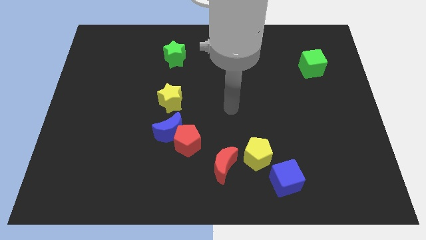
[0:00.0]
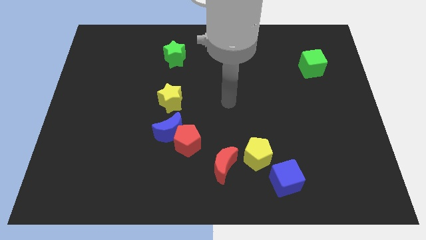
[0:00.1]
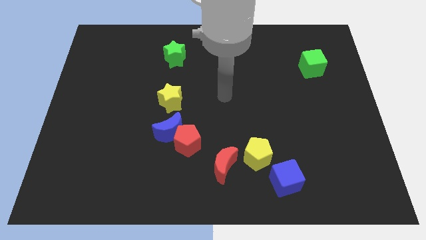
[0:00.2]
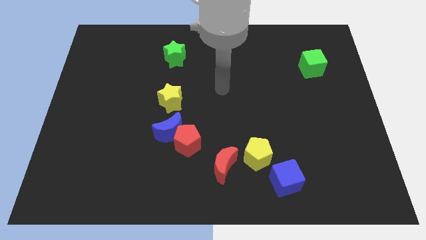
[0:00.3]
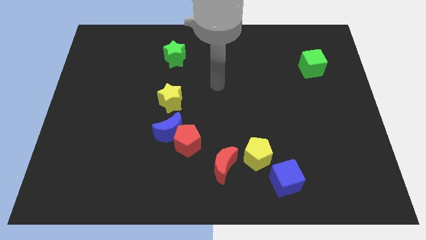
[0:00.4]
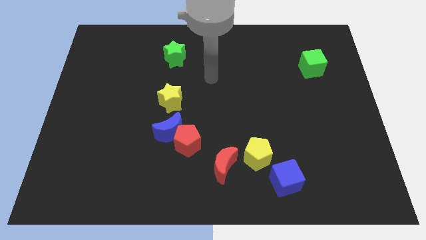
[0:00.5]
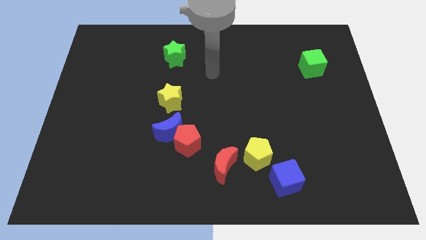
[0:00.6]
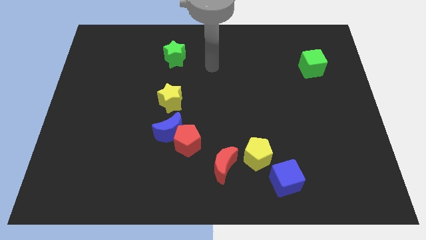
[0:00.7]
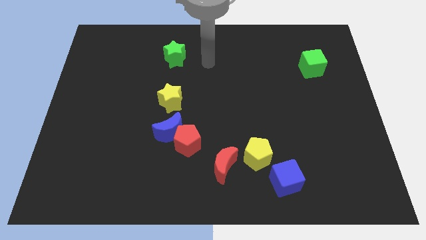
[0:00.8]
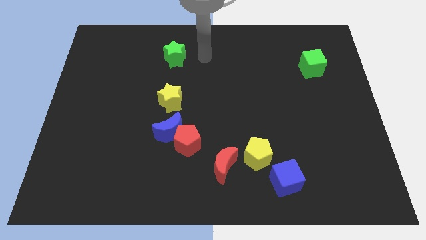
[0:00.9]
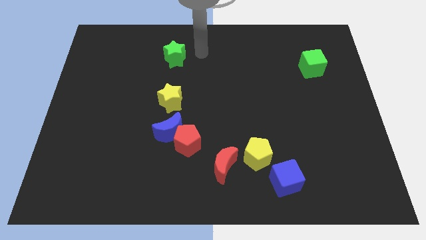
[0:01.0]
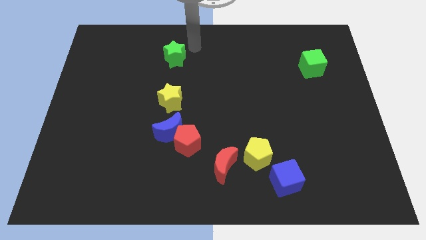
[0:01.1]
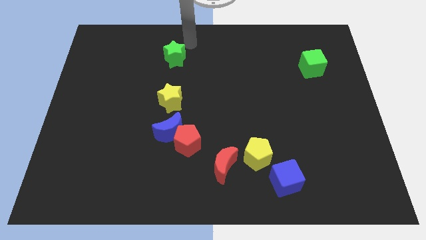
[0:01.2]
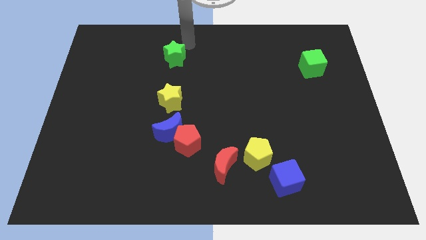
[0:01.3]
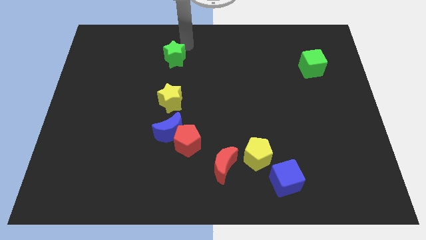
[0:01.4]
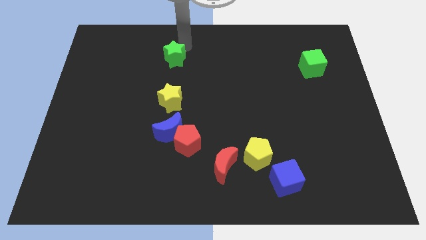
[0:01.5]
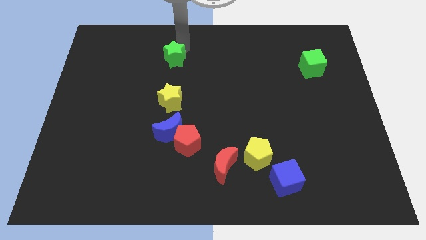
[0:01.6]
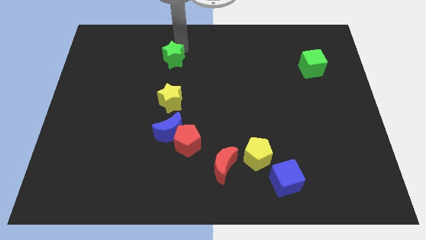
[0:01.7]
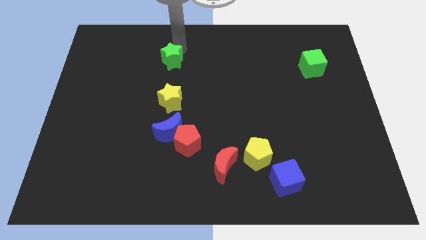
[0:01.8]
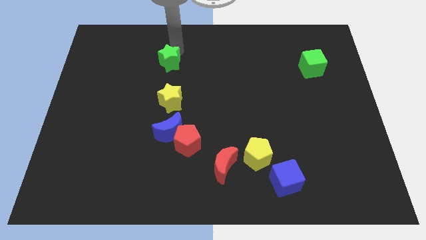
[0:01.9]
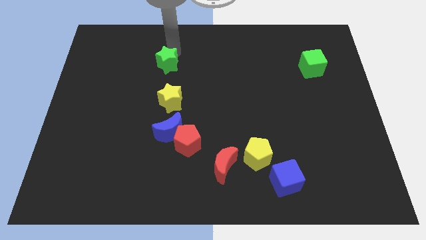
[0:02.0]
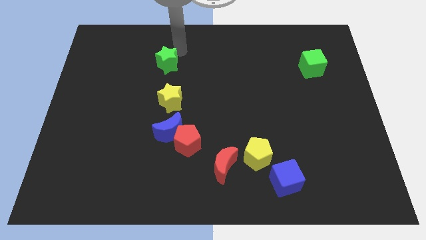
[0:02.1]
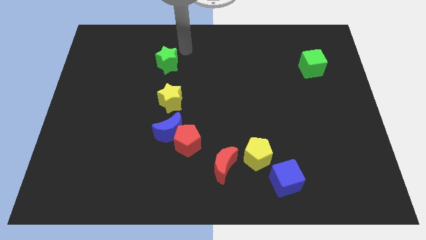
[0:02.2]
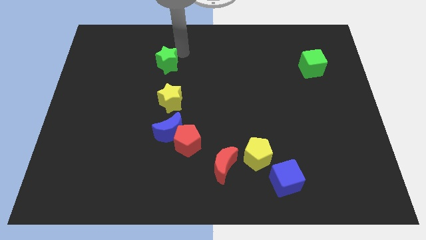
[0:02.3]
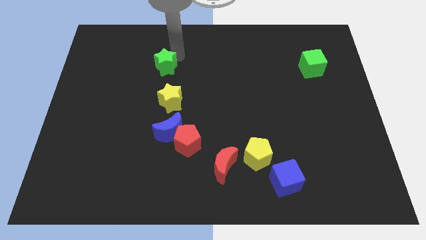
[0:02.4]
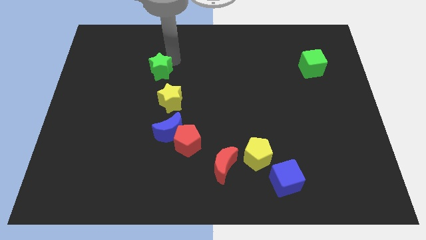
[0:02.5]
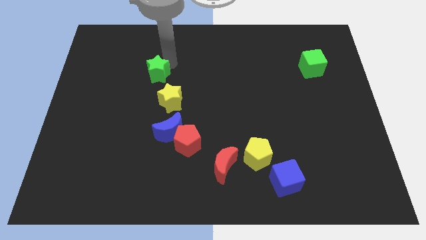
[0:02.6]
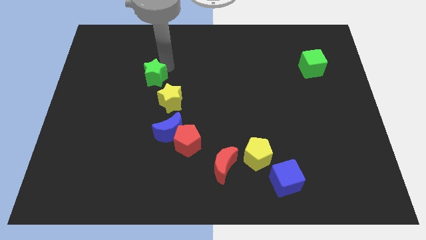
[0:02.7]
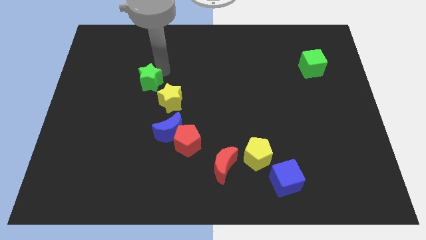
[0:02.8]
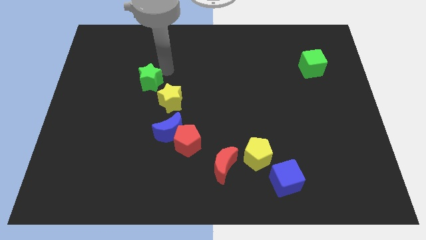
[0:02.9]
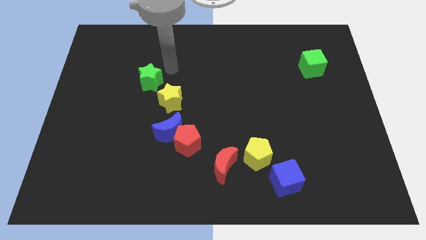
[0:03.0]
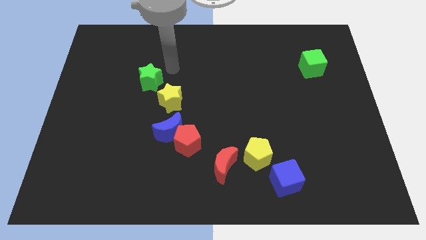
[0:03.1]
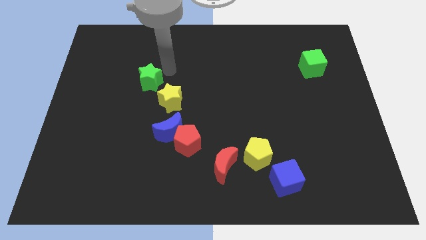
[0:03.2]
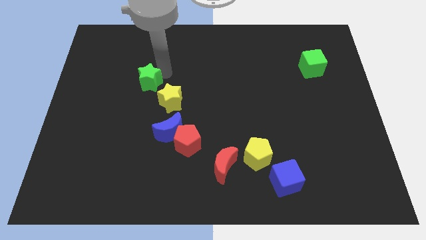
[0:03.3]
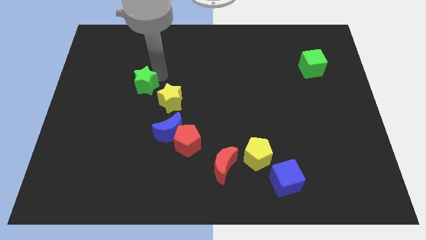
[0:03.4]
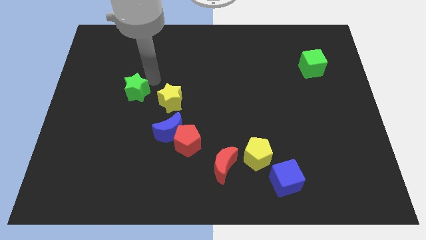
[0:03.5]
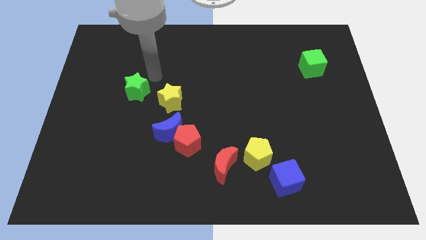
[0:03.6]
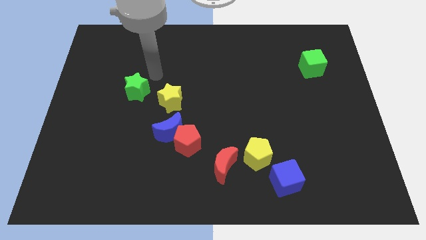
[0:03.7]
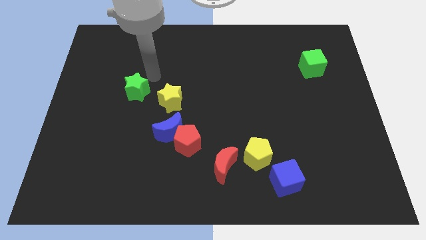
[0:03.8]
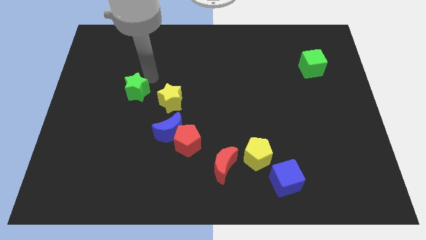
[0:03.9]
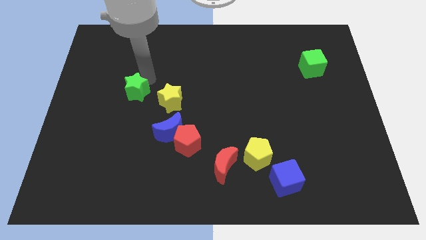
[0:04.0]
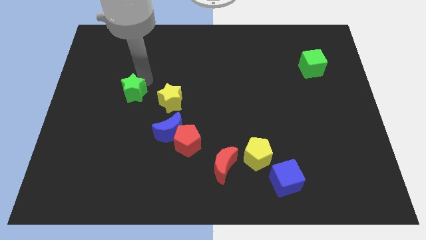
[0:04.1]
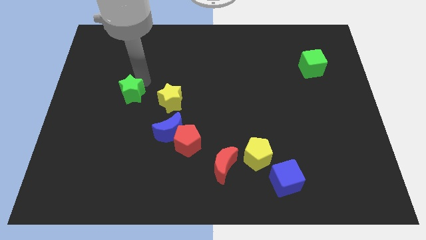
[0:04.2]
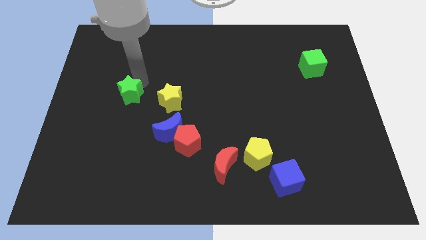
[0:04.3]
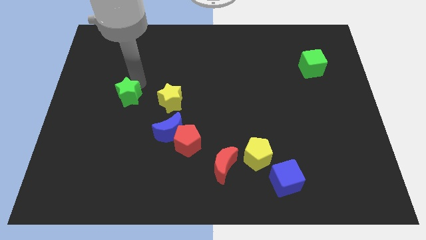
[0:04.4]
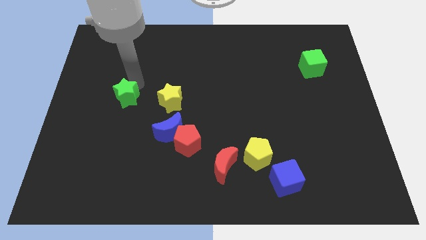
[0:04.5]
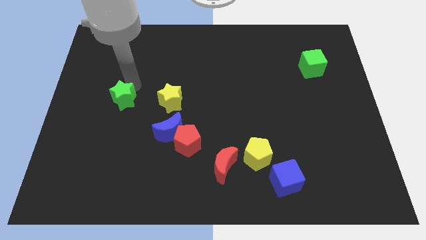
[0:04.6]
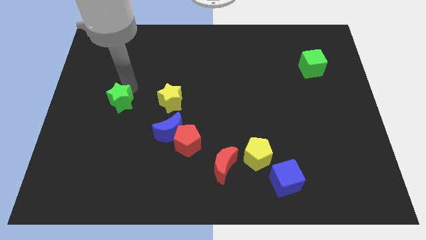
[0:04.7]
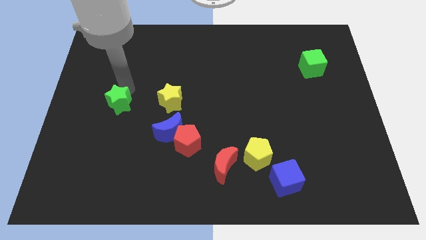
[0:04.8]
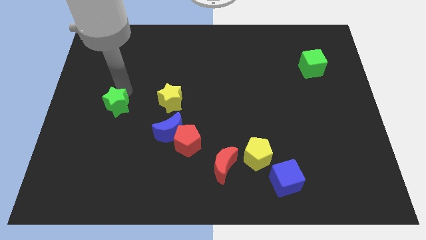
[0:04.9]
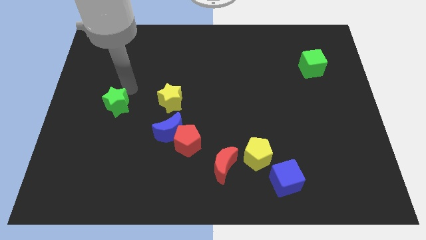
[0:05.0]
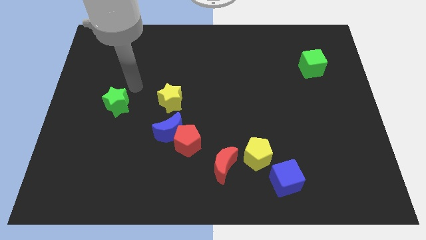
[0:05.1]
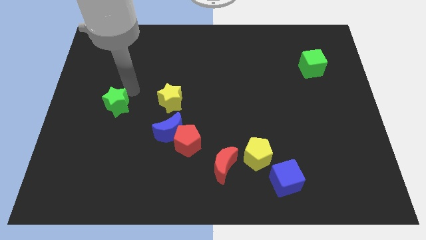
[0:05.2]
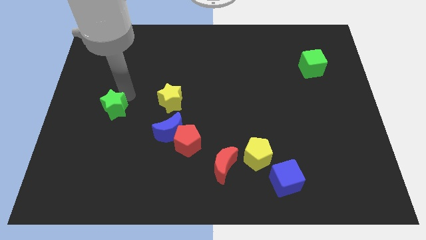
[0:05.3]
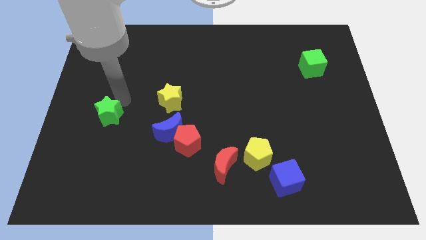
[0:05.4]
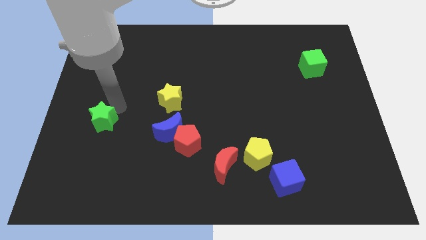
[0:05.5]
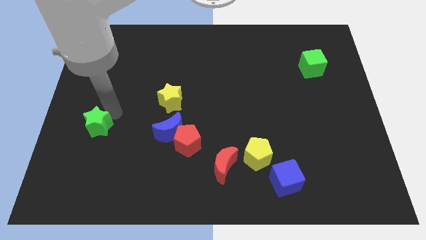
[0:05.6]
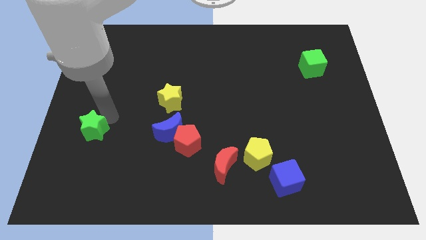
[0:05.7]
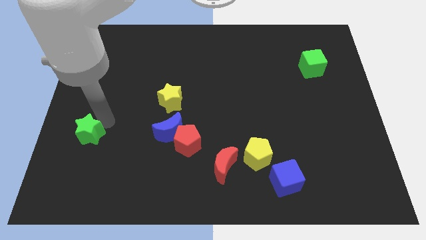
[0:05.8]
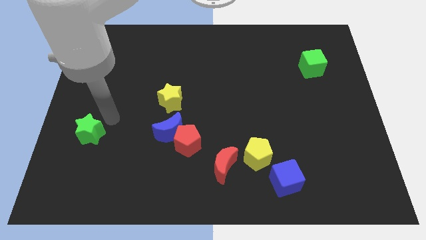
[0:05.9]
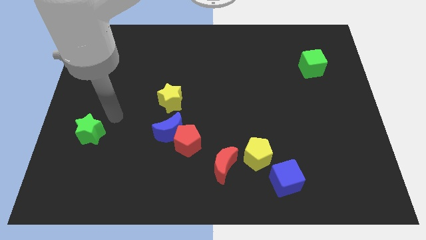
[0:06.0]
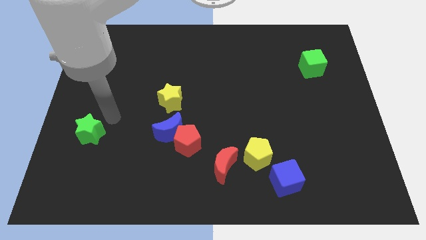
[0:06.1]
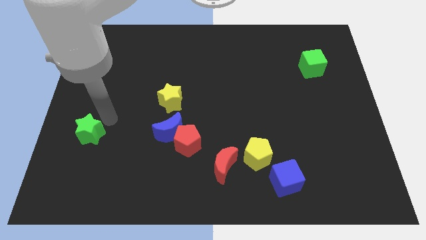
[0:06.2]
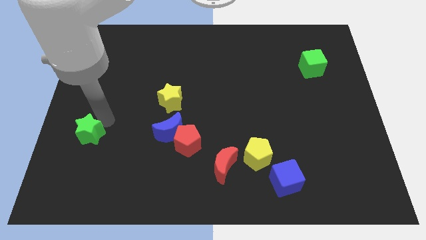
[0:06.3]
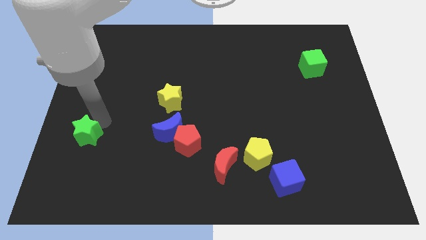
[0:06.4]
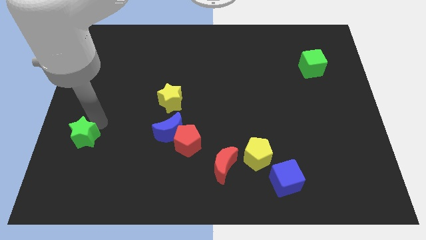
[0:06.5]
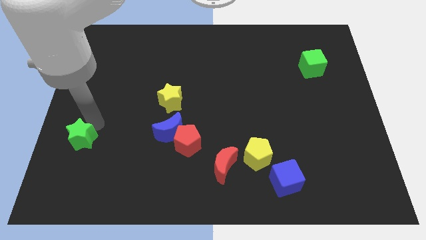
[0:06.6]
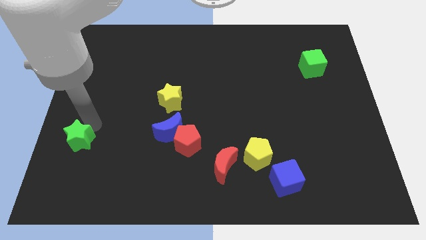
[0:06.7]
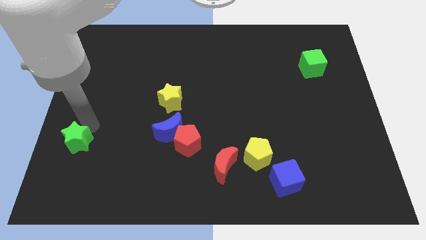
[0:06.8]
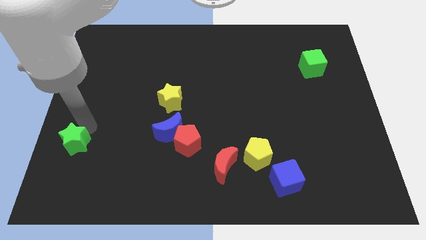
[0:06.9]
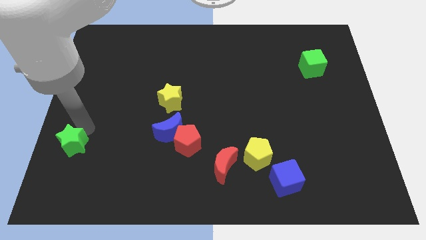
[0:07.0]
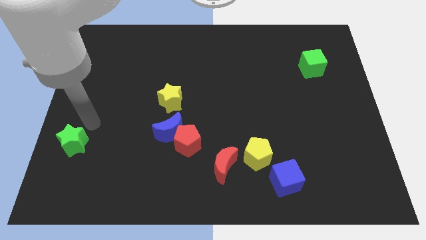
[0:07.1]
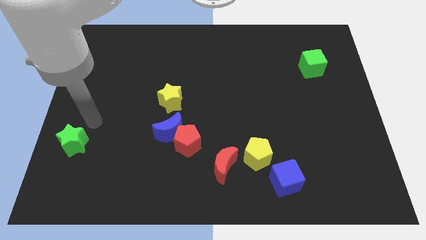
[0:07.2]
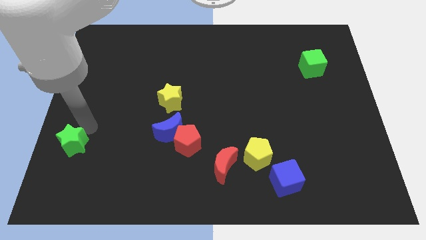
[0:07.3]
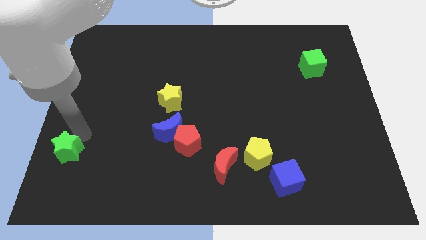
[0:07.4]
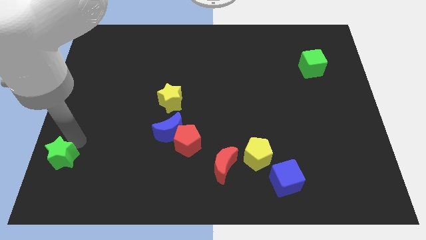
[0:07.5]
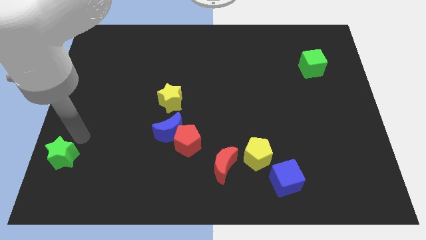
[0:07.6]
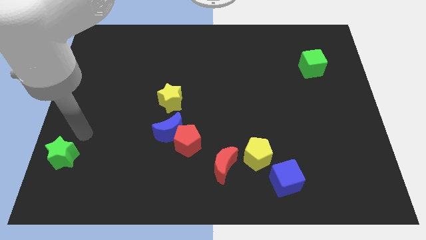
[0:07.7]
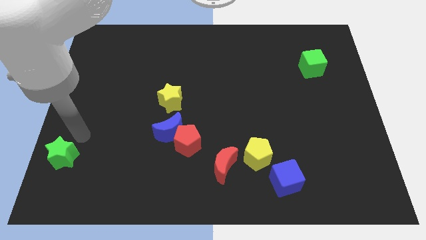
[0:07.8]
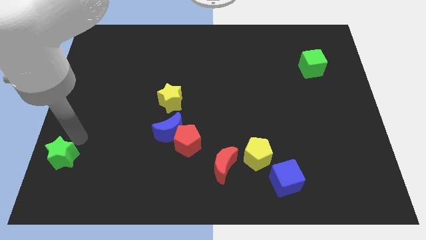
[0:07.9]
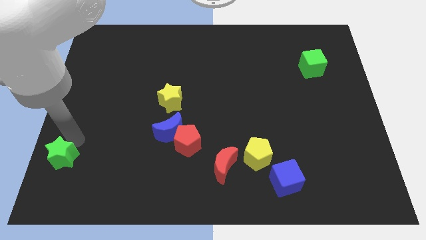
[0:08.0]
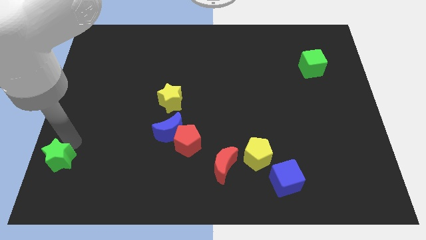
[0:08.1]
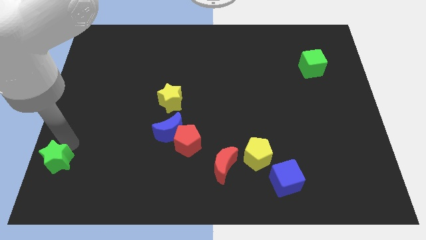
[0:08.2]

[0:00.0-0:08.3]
slide the green star to the bottom left
